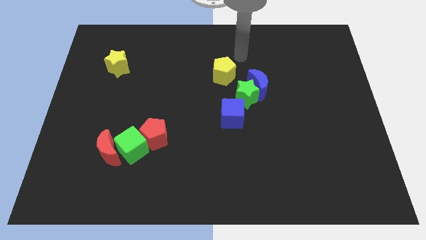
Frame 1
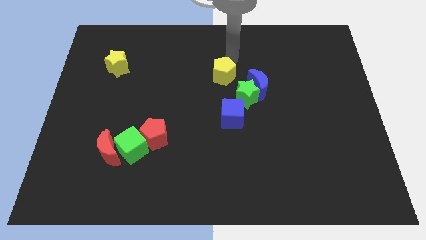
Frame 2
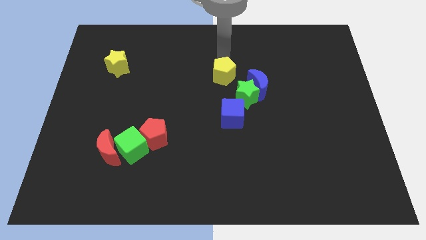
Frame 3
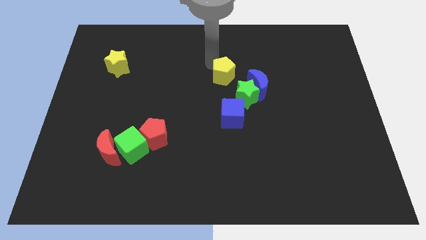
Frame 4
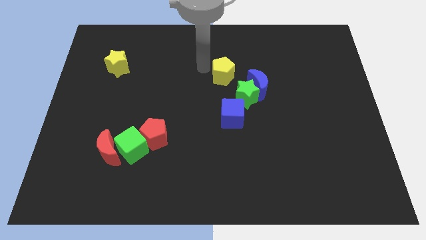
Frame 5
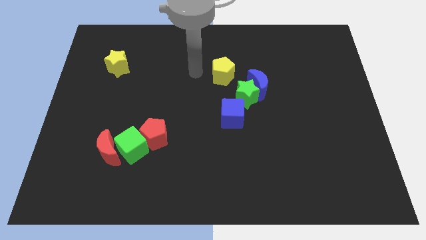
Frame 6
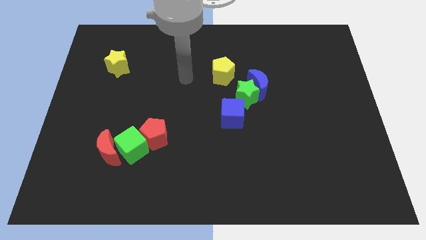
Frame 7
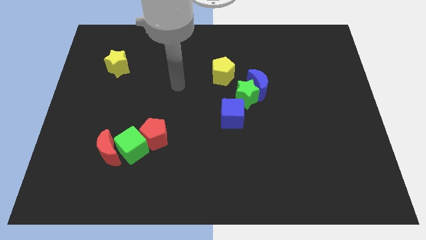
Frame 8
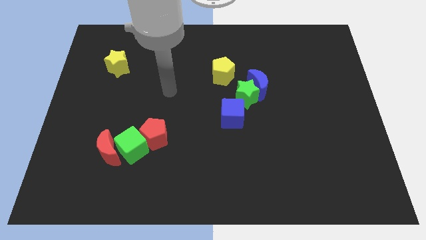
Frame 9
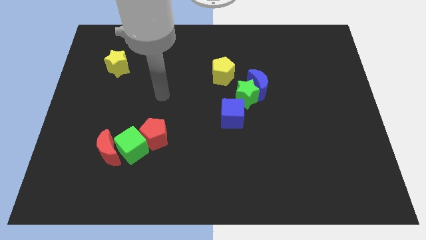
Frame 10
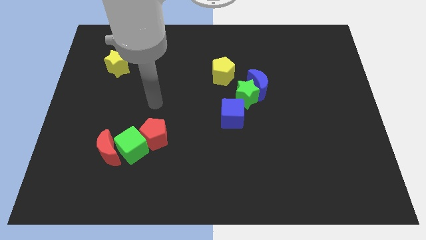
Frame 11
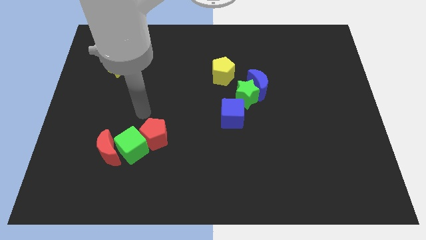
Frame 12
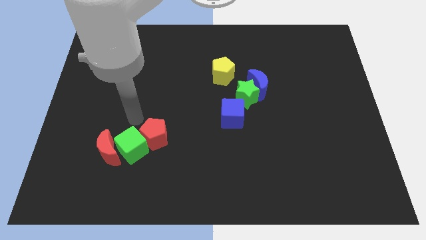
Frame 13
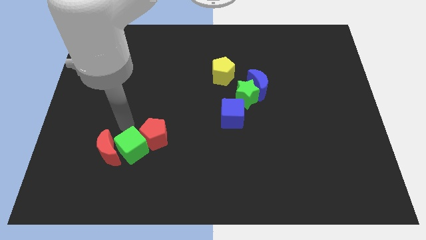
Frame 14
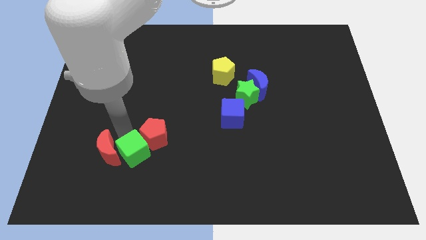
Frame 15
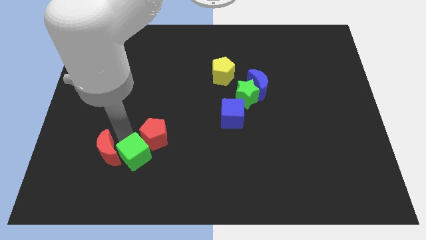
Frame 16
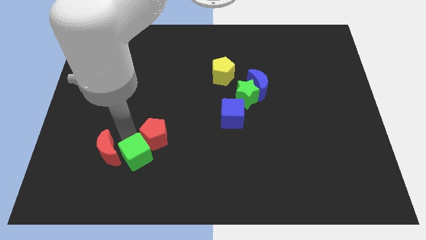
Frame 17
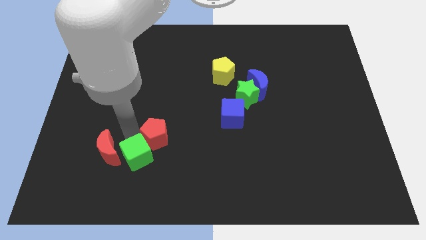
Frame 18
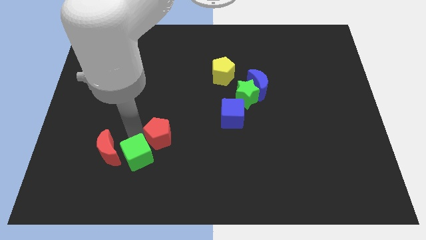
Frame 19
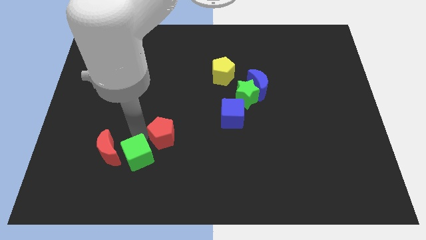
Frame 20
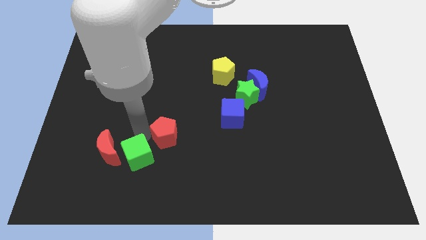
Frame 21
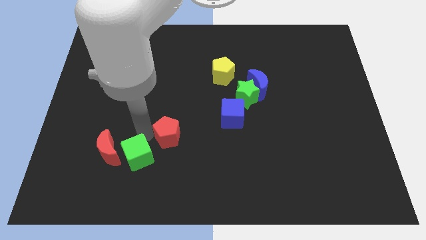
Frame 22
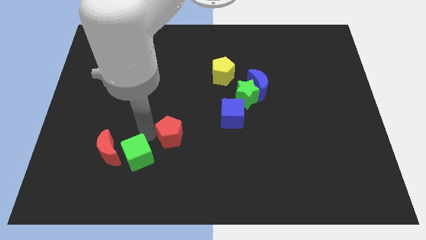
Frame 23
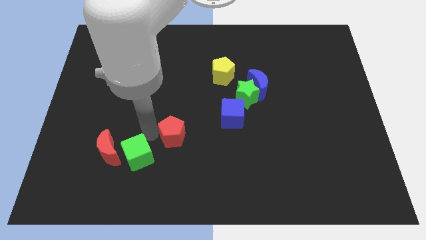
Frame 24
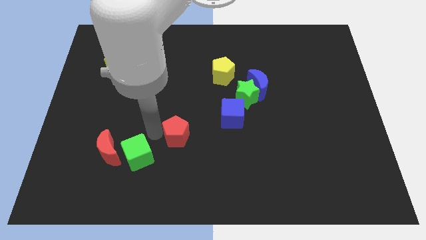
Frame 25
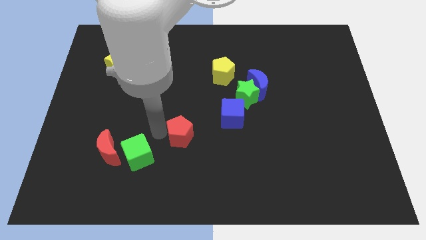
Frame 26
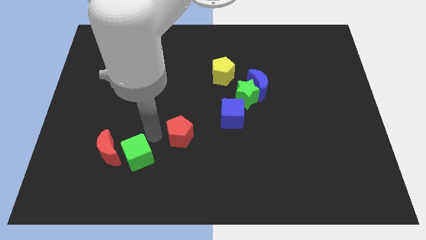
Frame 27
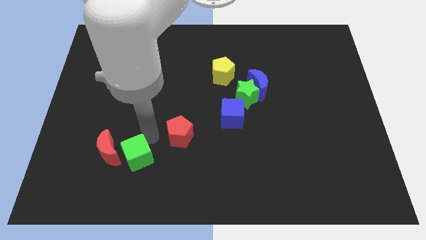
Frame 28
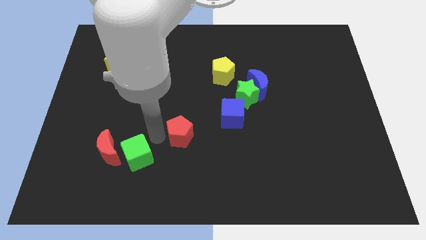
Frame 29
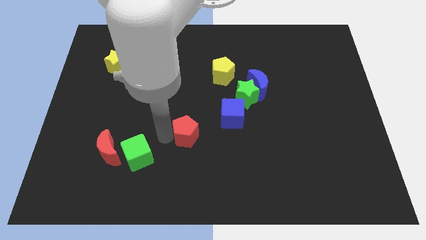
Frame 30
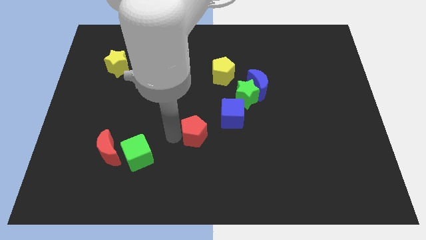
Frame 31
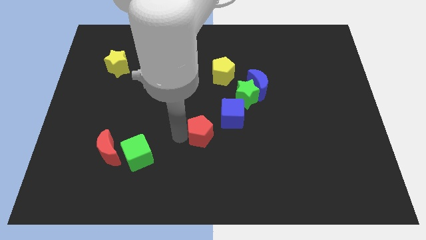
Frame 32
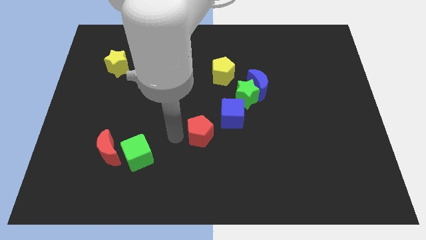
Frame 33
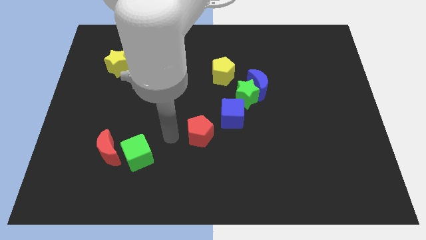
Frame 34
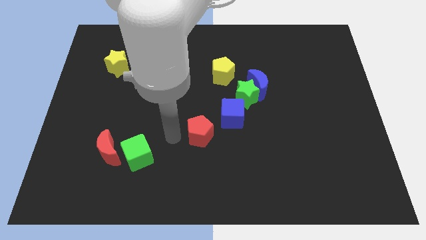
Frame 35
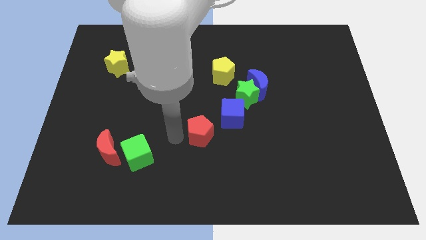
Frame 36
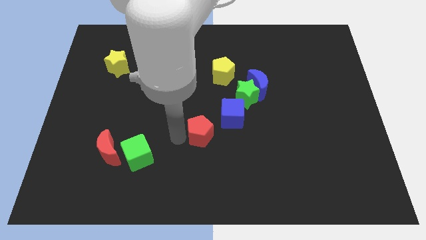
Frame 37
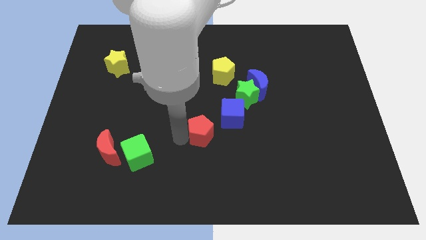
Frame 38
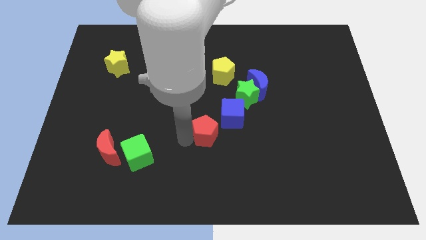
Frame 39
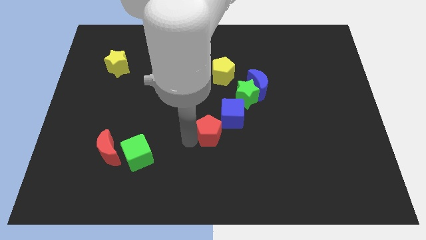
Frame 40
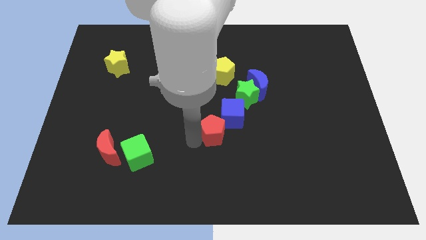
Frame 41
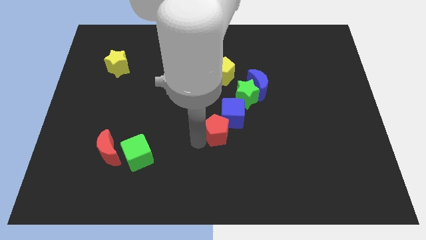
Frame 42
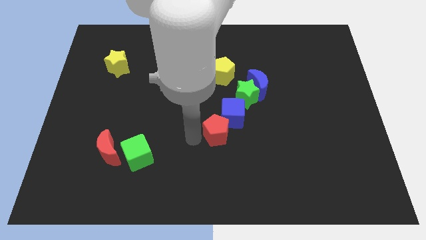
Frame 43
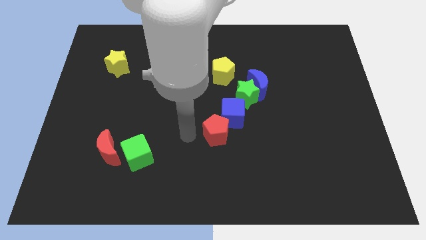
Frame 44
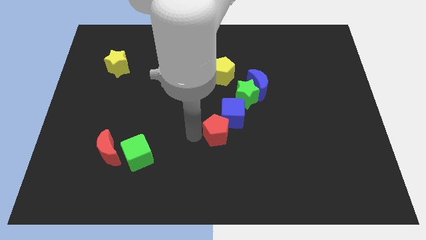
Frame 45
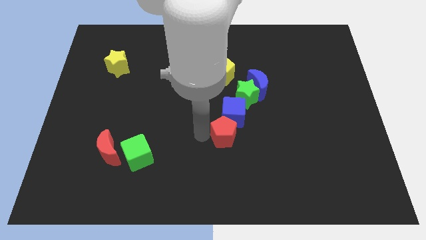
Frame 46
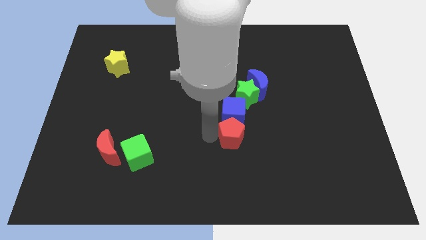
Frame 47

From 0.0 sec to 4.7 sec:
move the red pentagon to the bottom side of the green star

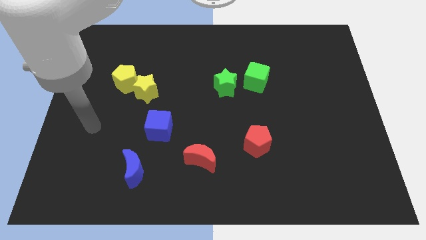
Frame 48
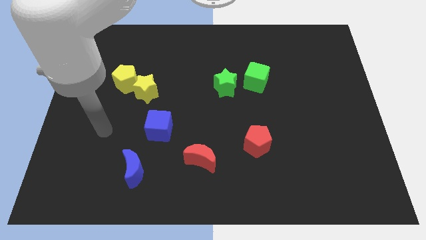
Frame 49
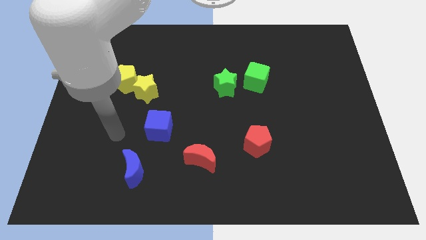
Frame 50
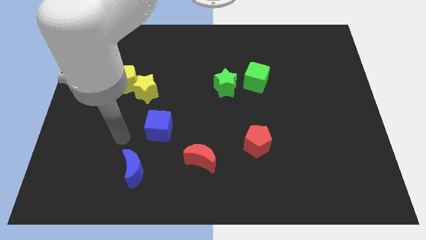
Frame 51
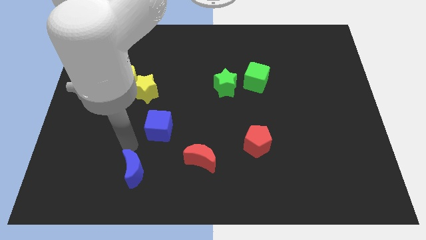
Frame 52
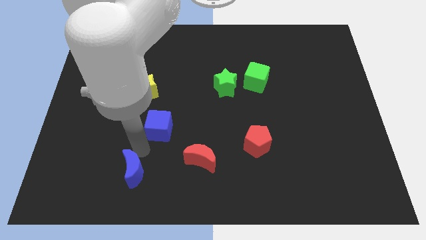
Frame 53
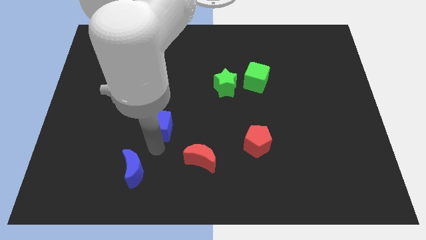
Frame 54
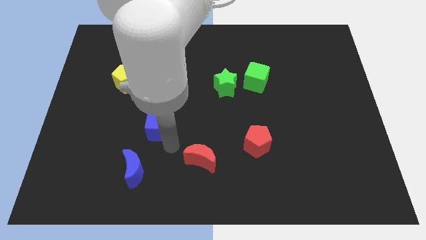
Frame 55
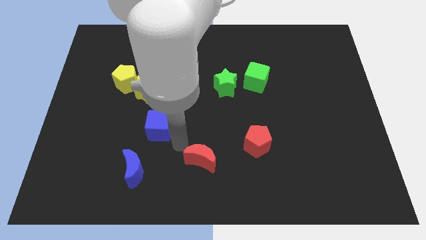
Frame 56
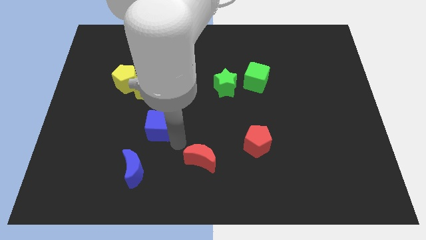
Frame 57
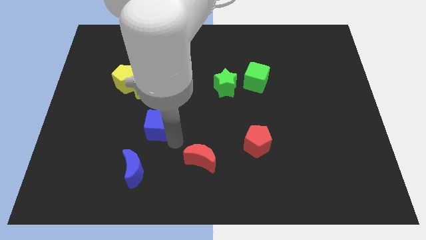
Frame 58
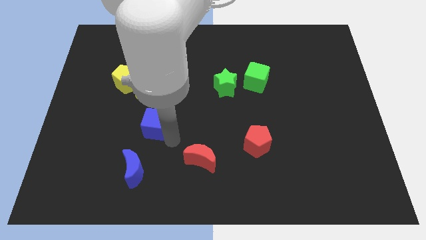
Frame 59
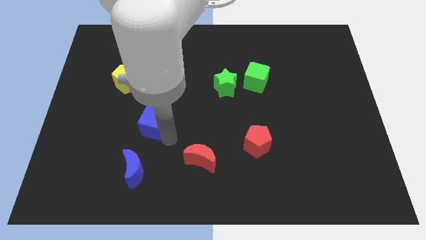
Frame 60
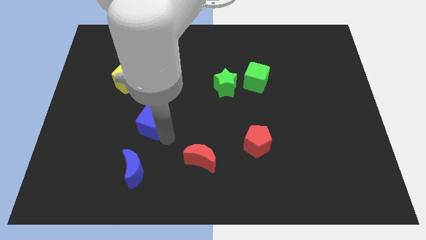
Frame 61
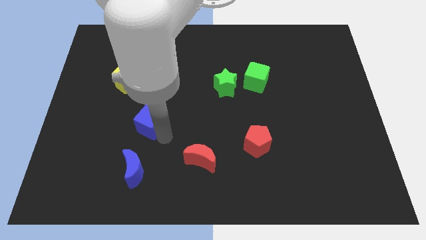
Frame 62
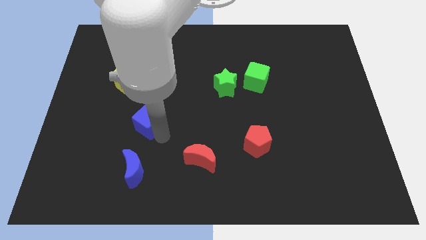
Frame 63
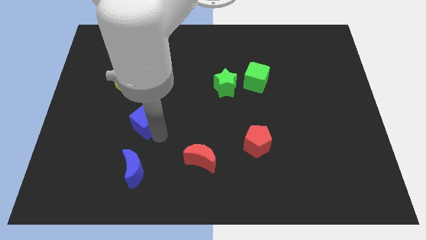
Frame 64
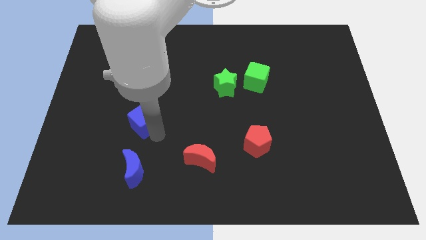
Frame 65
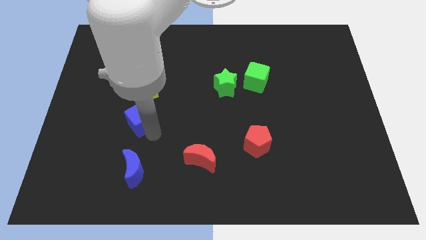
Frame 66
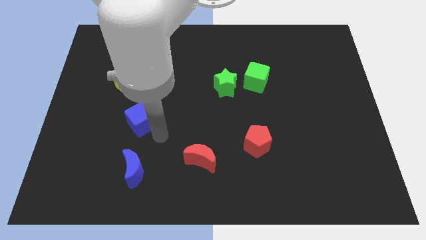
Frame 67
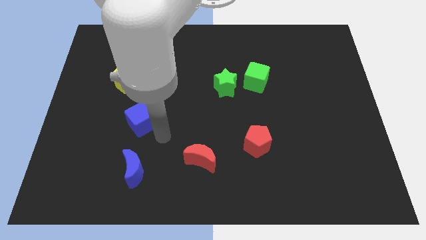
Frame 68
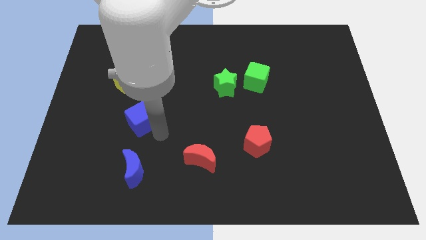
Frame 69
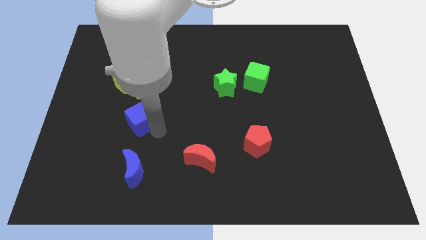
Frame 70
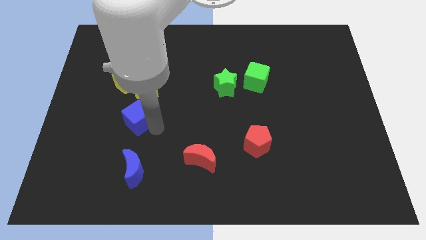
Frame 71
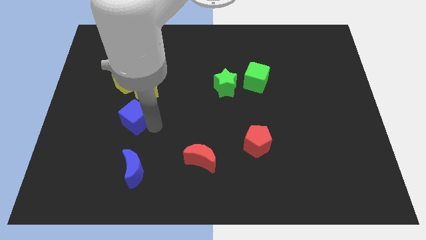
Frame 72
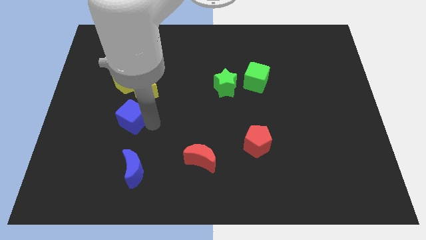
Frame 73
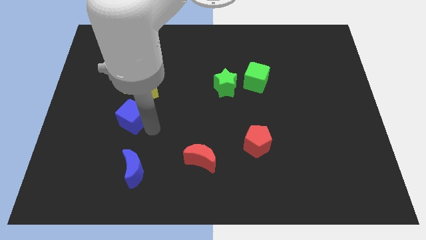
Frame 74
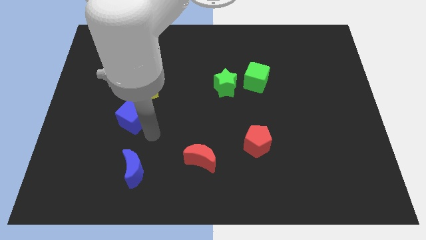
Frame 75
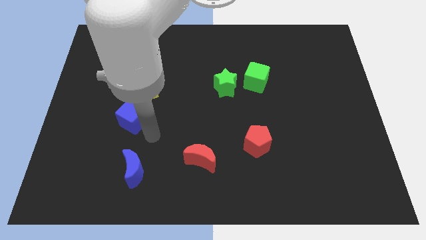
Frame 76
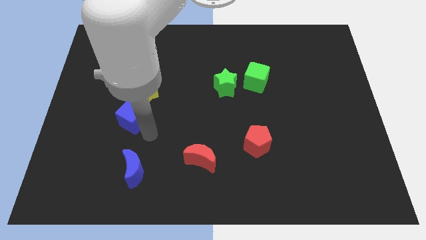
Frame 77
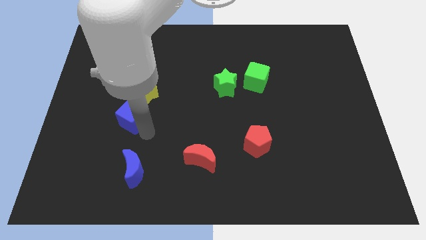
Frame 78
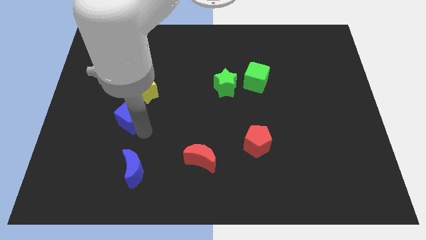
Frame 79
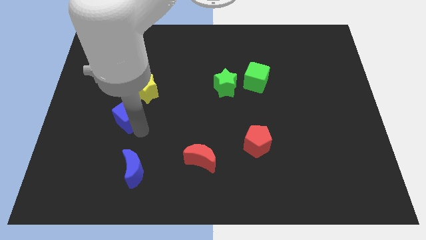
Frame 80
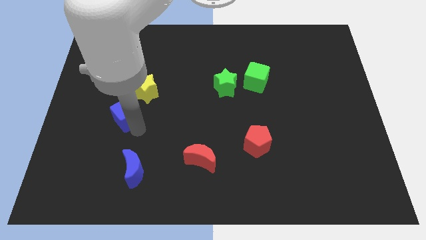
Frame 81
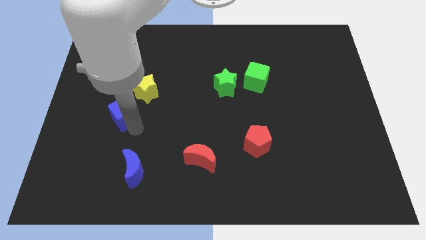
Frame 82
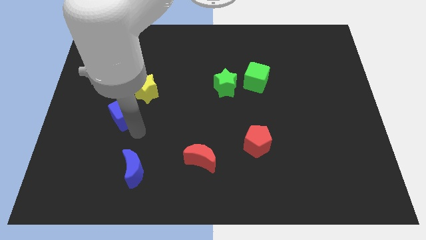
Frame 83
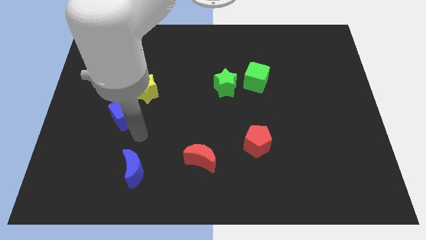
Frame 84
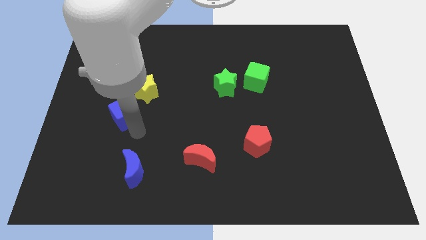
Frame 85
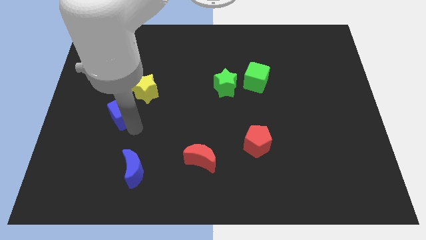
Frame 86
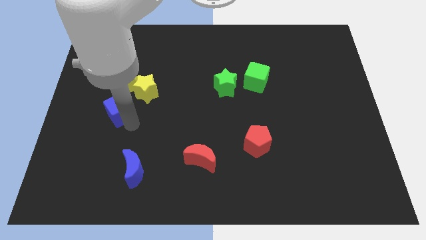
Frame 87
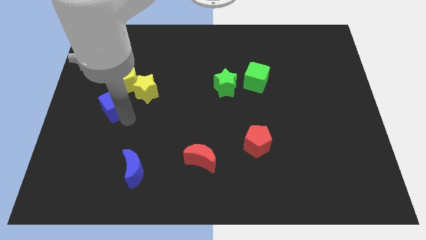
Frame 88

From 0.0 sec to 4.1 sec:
put the blue cube to the bottom left side of the yellow pentagon
